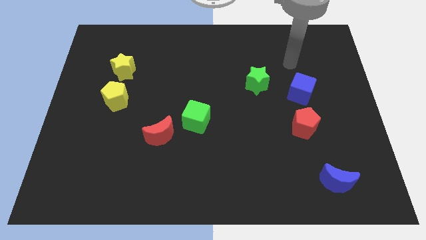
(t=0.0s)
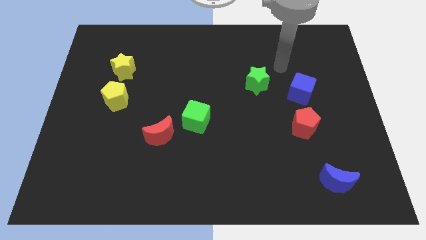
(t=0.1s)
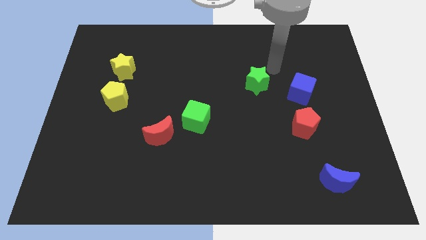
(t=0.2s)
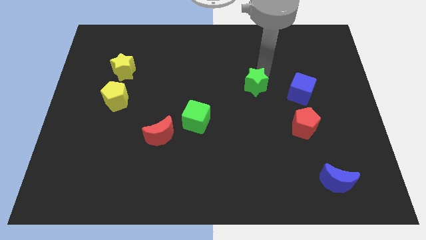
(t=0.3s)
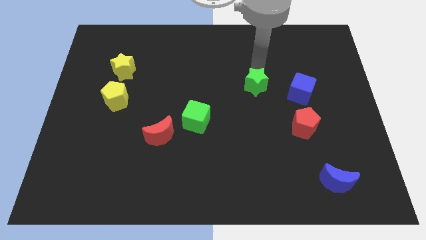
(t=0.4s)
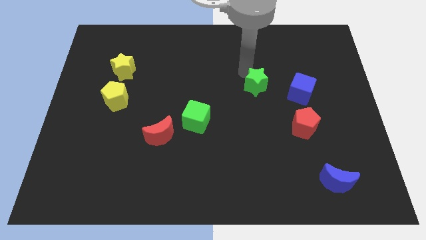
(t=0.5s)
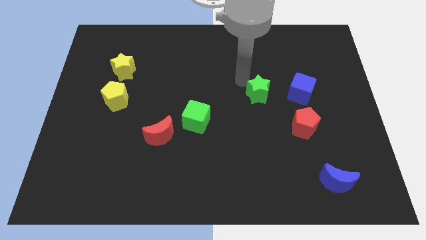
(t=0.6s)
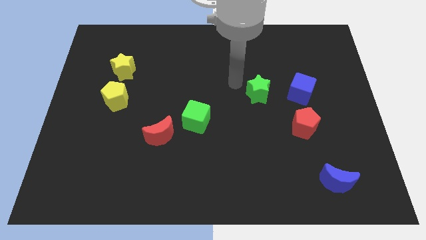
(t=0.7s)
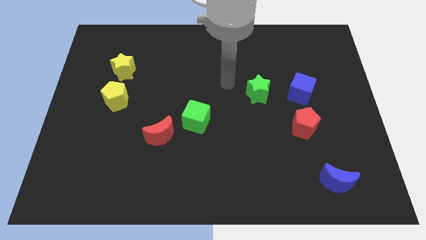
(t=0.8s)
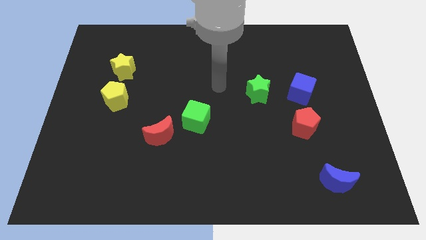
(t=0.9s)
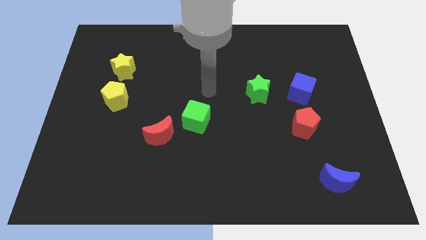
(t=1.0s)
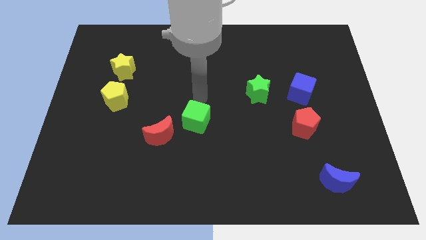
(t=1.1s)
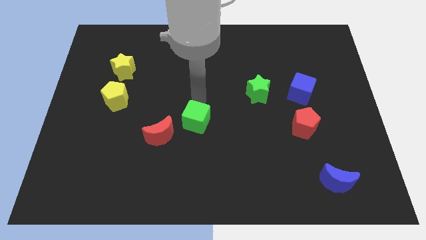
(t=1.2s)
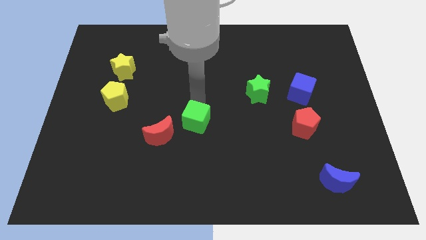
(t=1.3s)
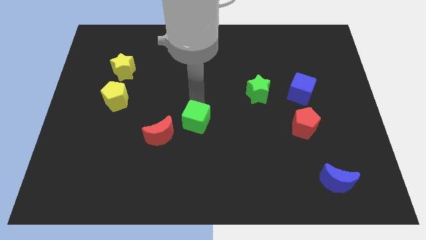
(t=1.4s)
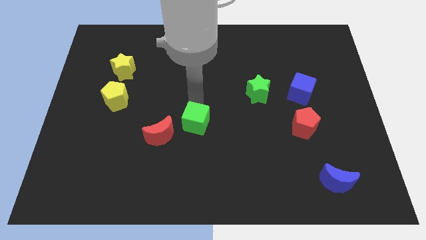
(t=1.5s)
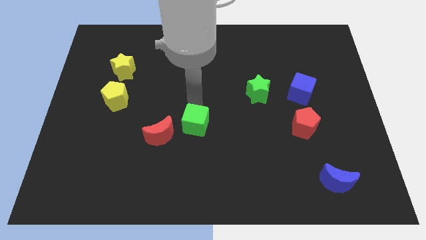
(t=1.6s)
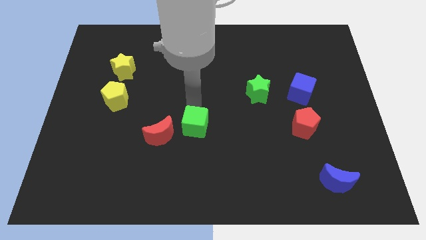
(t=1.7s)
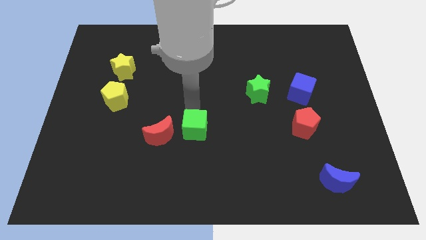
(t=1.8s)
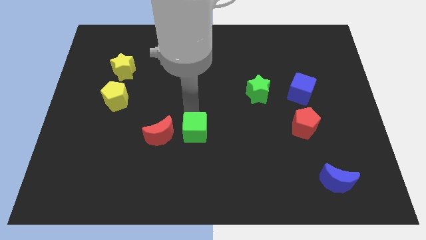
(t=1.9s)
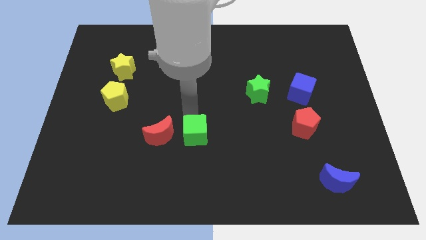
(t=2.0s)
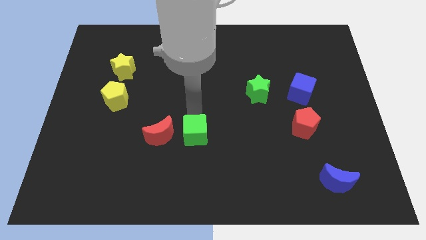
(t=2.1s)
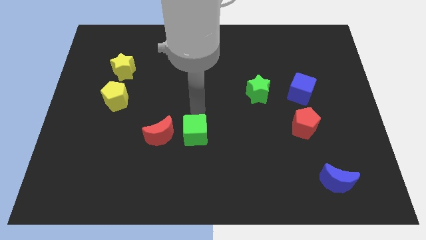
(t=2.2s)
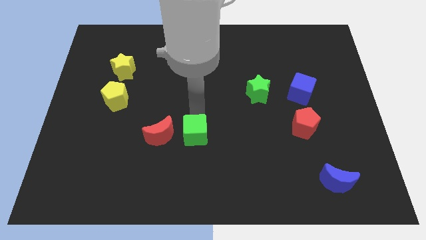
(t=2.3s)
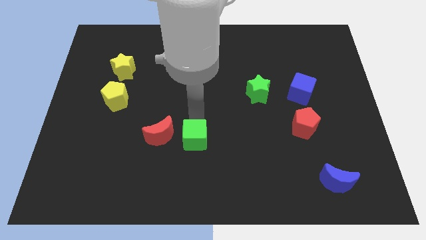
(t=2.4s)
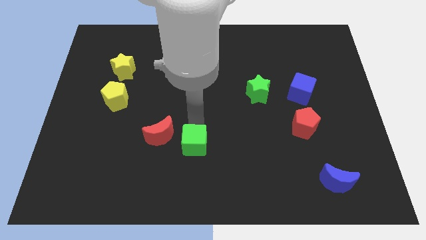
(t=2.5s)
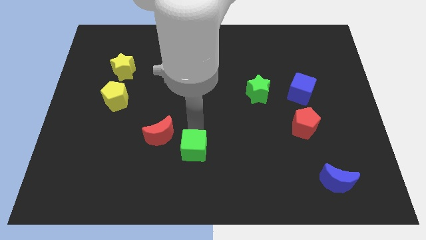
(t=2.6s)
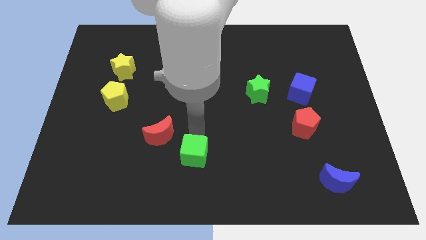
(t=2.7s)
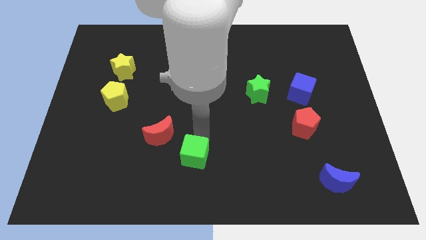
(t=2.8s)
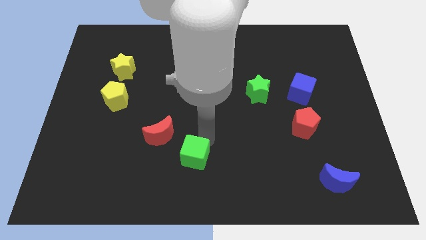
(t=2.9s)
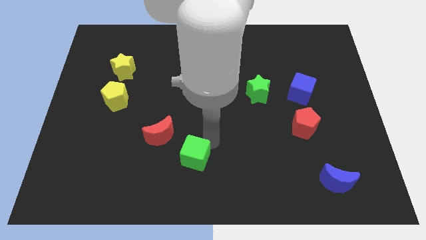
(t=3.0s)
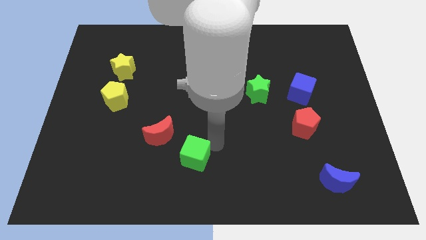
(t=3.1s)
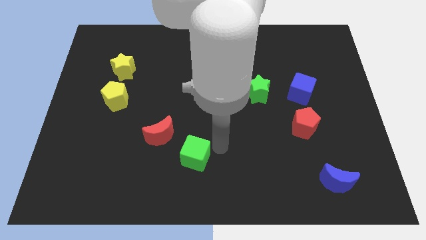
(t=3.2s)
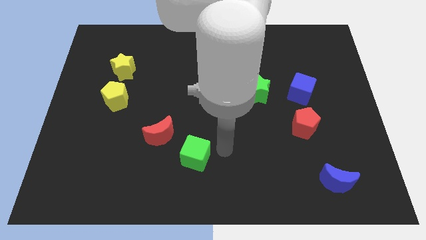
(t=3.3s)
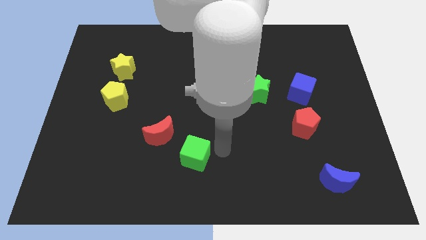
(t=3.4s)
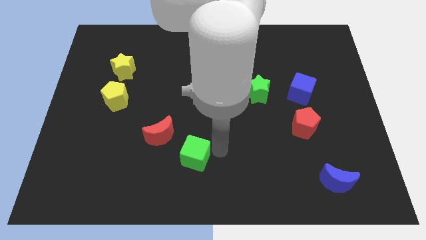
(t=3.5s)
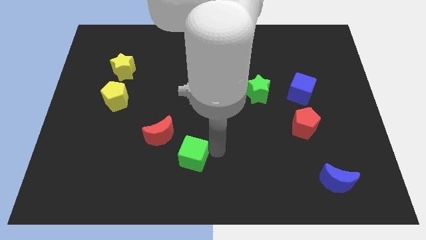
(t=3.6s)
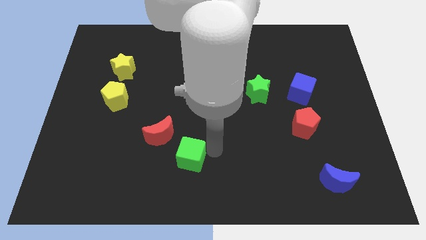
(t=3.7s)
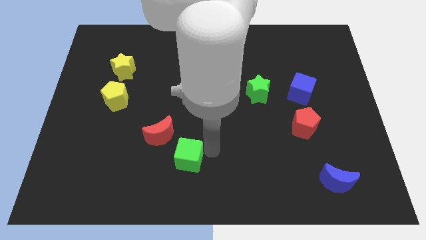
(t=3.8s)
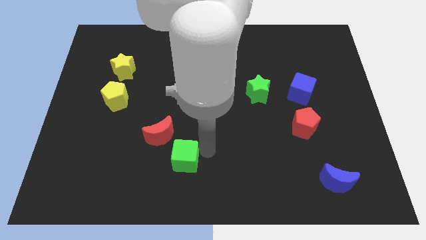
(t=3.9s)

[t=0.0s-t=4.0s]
push the green cube diagonally down and left a little

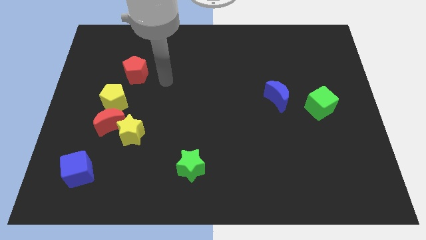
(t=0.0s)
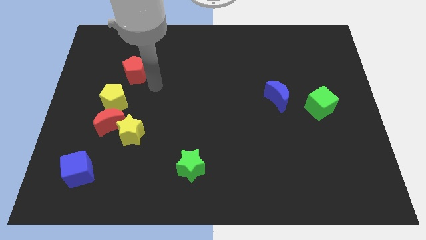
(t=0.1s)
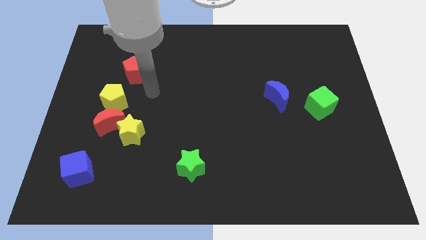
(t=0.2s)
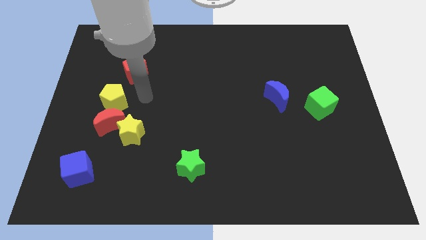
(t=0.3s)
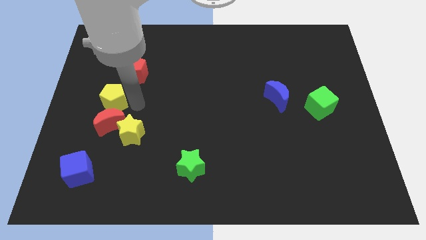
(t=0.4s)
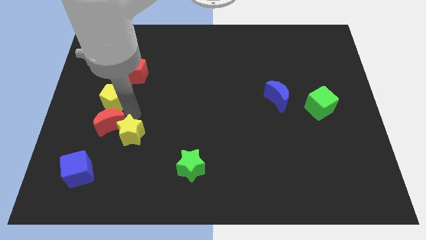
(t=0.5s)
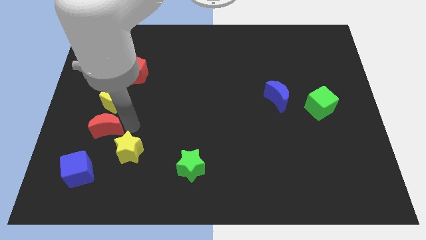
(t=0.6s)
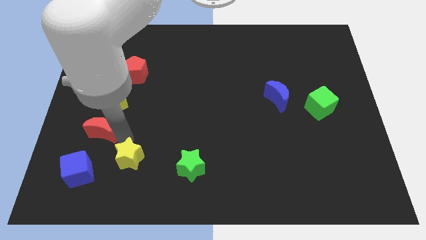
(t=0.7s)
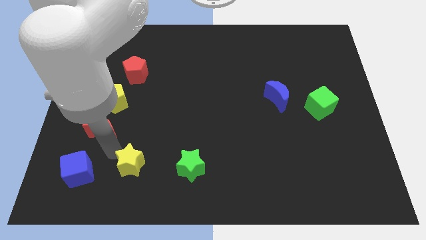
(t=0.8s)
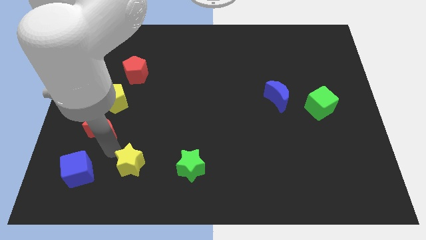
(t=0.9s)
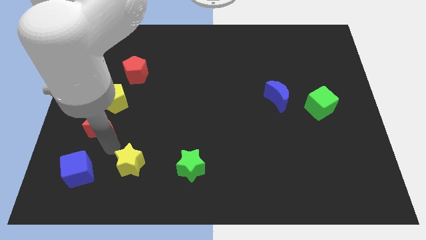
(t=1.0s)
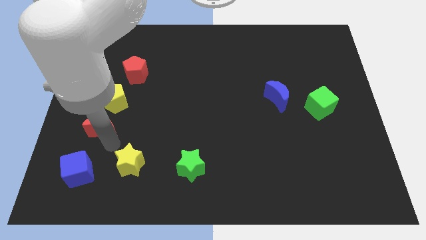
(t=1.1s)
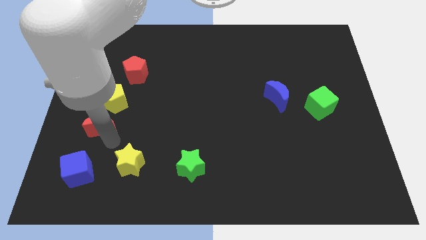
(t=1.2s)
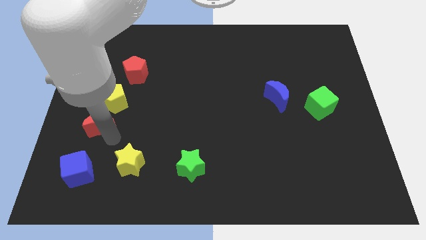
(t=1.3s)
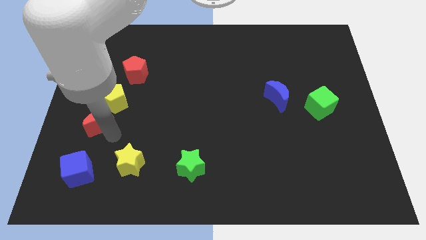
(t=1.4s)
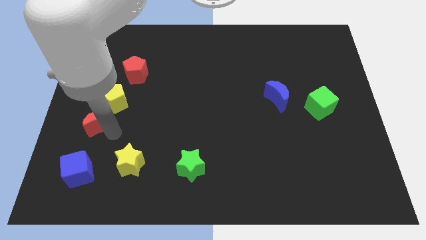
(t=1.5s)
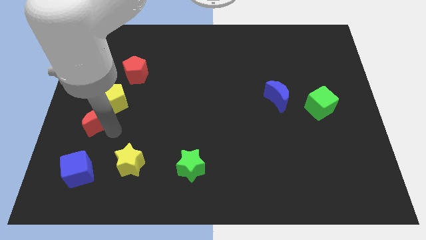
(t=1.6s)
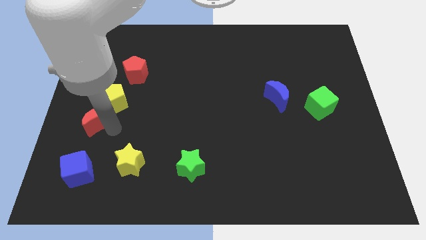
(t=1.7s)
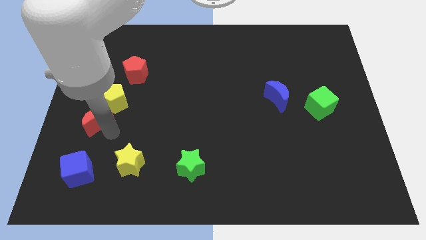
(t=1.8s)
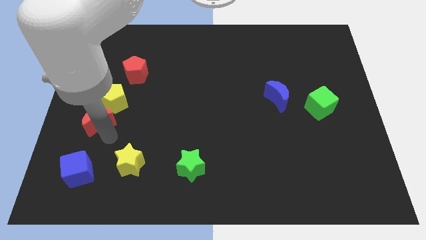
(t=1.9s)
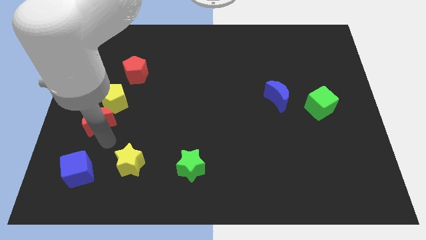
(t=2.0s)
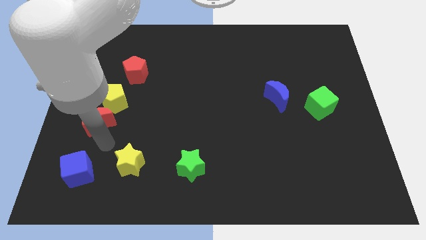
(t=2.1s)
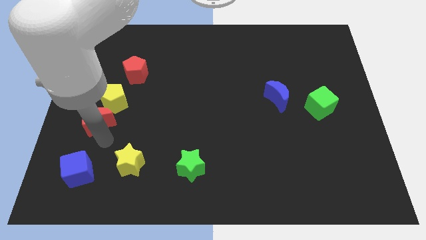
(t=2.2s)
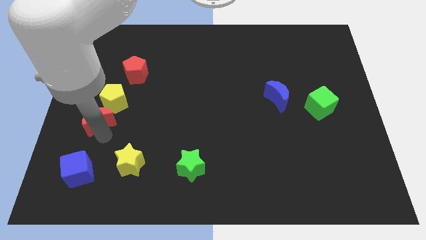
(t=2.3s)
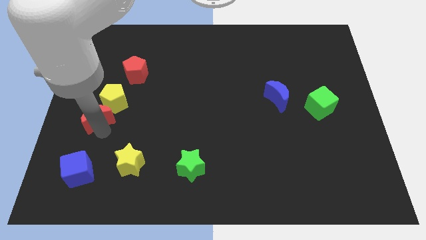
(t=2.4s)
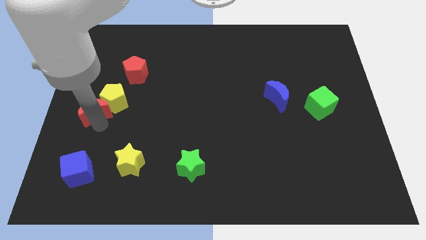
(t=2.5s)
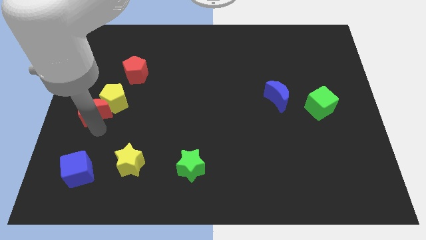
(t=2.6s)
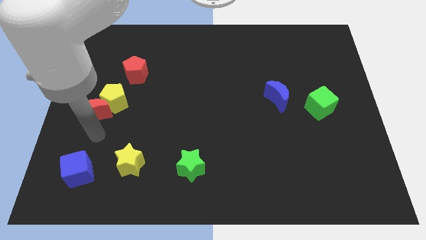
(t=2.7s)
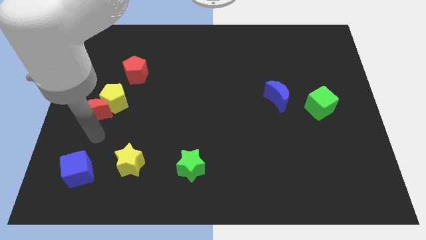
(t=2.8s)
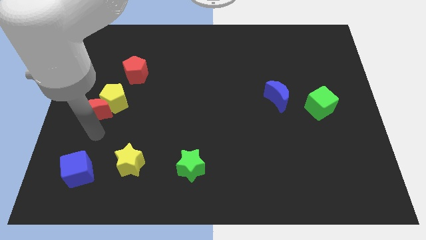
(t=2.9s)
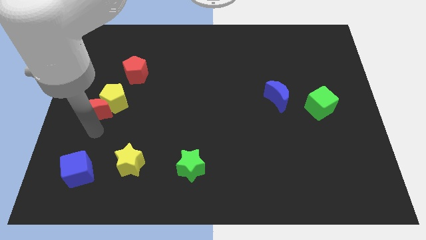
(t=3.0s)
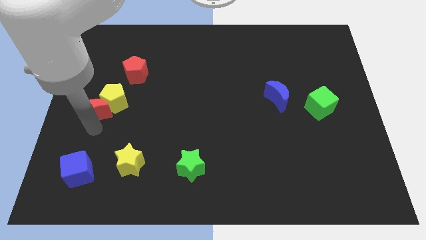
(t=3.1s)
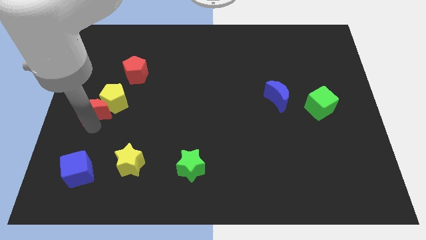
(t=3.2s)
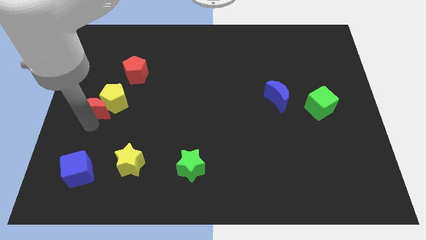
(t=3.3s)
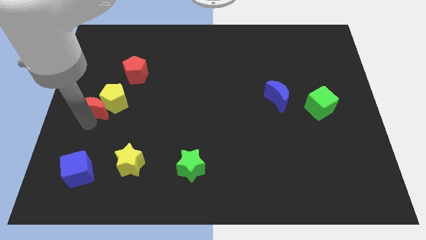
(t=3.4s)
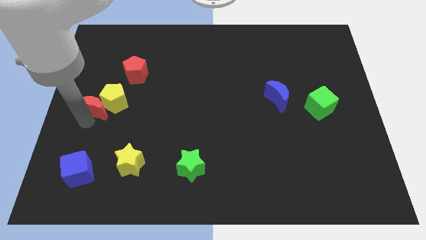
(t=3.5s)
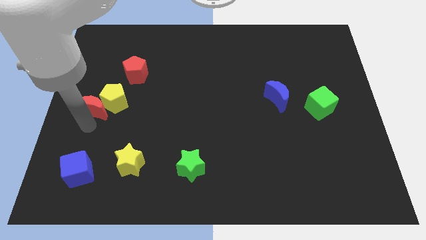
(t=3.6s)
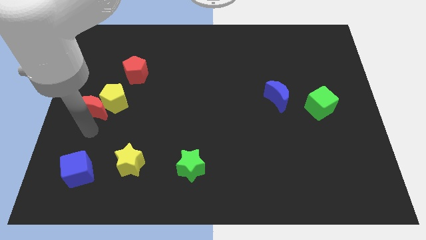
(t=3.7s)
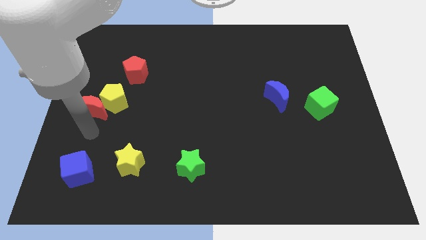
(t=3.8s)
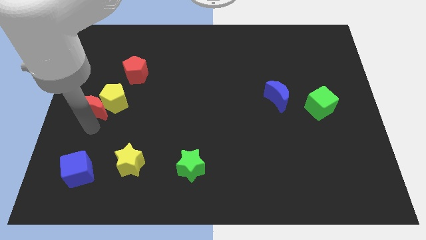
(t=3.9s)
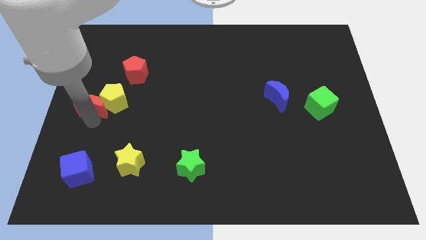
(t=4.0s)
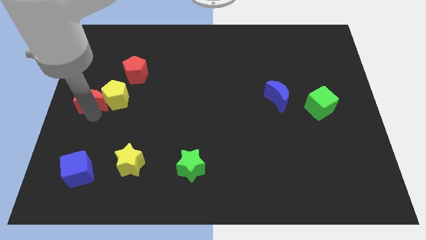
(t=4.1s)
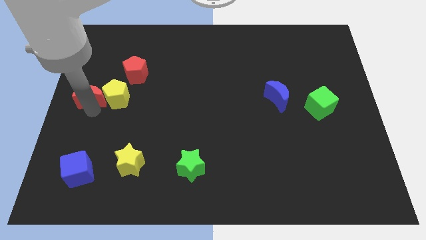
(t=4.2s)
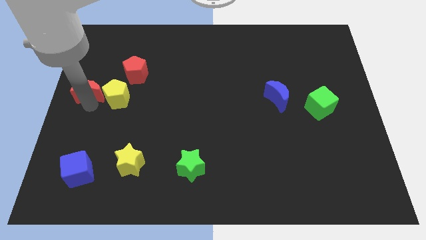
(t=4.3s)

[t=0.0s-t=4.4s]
push the red moon upwards a little bit
